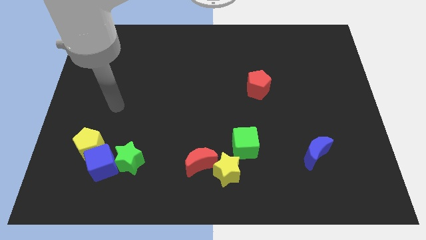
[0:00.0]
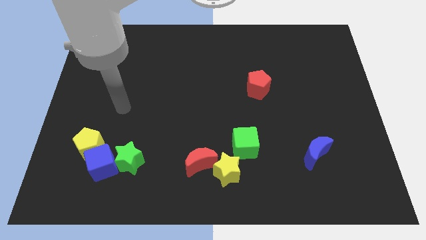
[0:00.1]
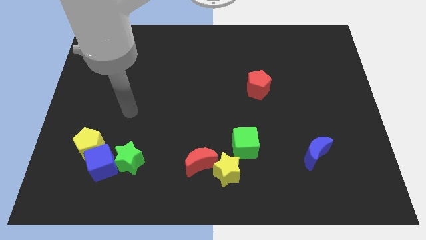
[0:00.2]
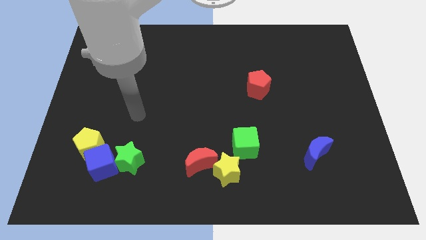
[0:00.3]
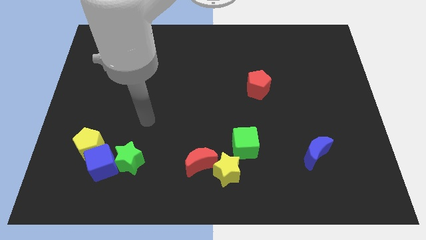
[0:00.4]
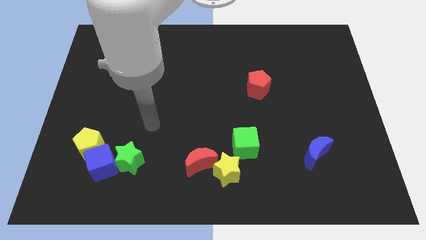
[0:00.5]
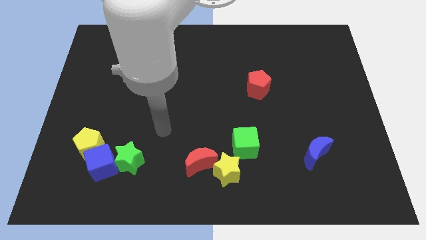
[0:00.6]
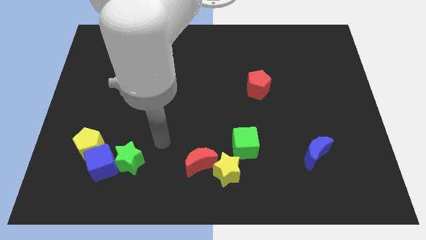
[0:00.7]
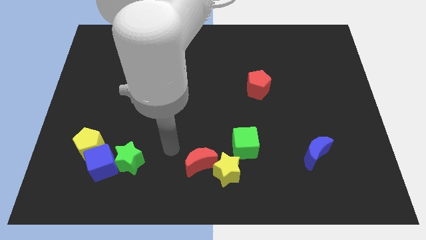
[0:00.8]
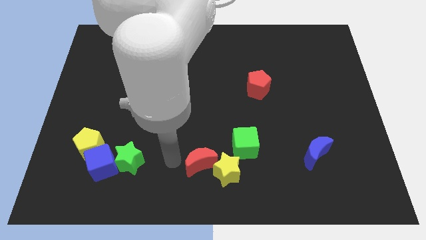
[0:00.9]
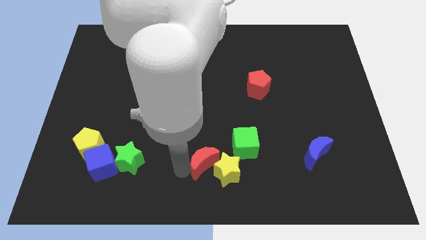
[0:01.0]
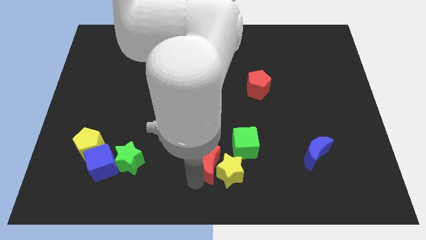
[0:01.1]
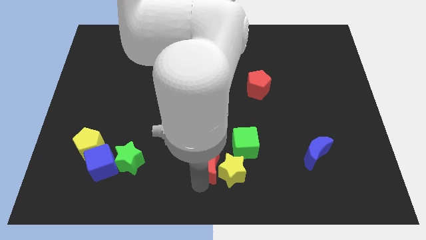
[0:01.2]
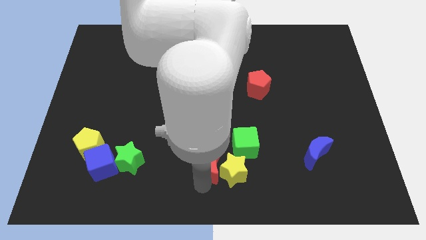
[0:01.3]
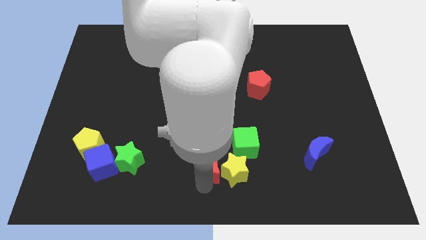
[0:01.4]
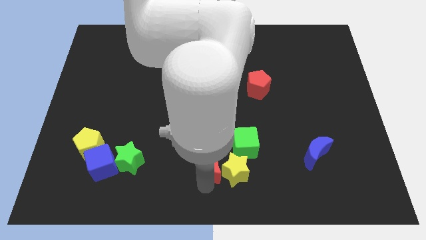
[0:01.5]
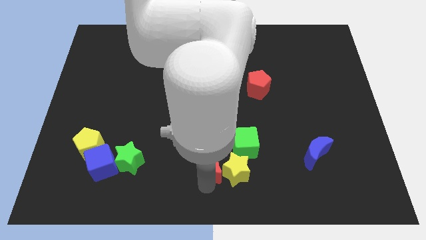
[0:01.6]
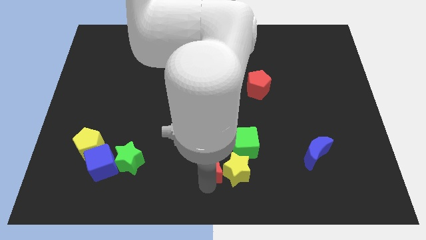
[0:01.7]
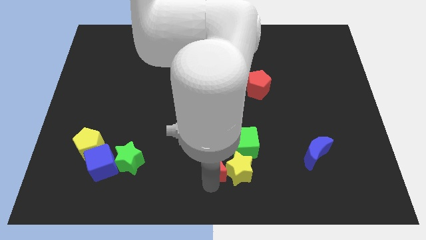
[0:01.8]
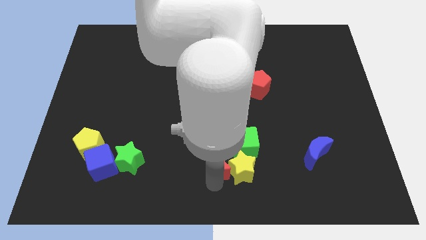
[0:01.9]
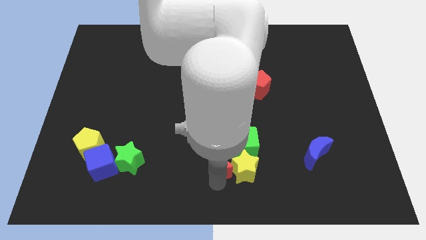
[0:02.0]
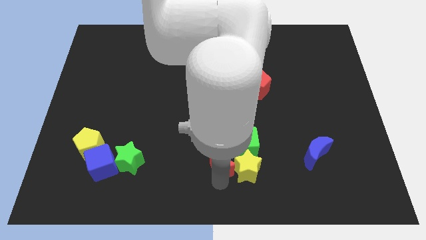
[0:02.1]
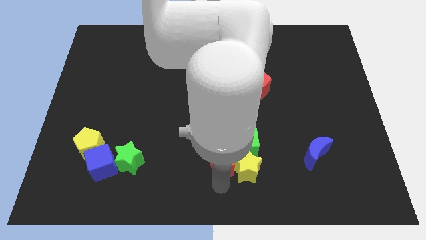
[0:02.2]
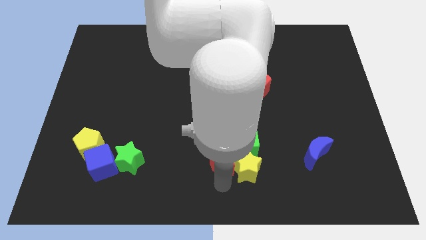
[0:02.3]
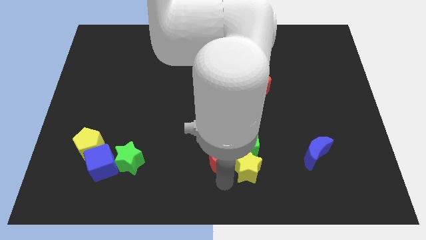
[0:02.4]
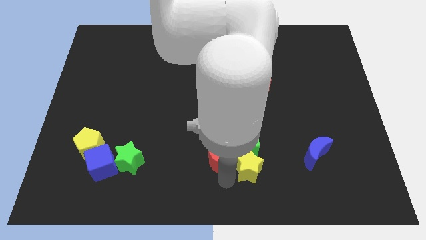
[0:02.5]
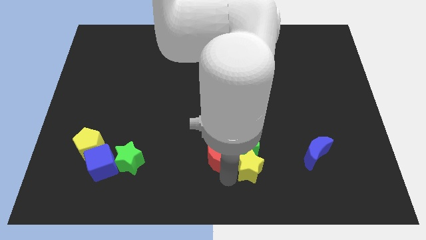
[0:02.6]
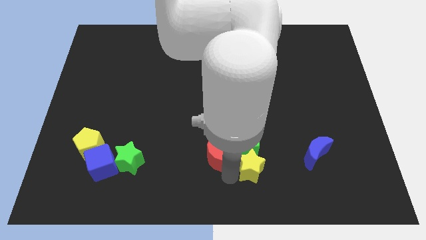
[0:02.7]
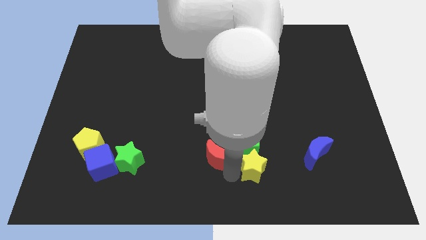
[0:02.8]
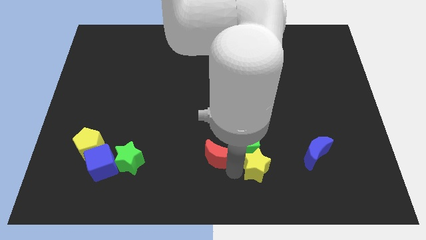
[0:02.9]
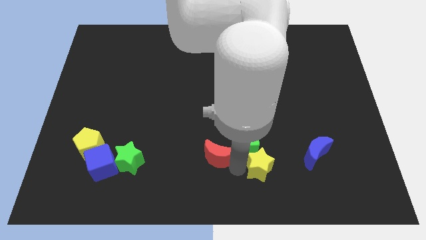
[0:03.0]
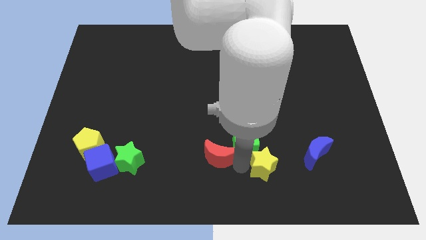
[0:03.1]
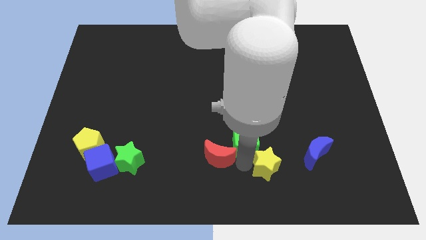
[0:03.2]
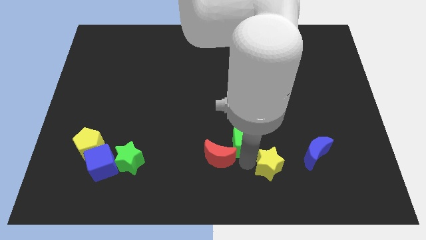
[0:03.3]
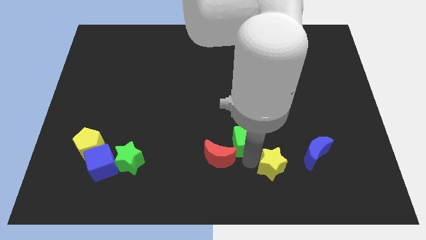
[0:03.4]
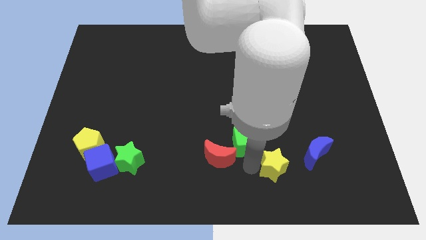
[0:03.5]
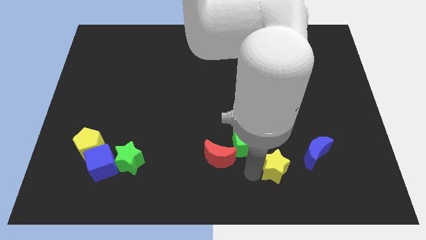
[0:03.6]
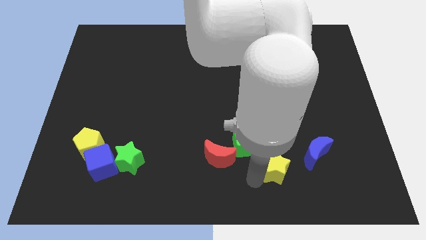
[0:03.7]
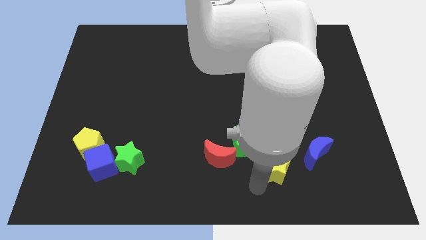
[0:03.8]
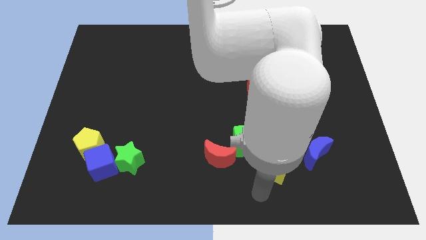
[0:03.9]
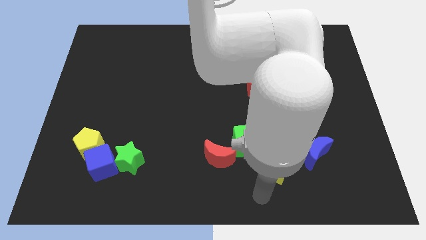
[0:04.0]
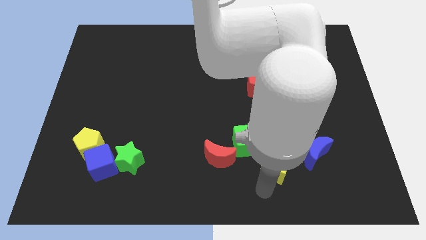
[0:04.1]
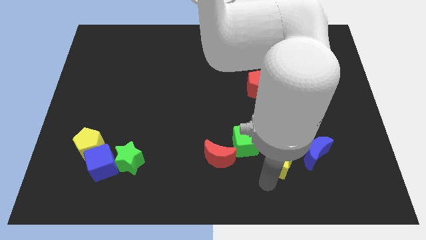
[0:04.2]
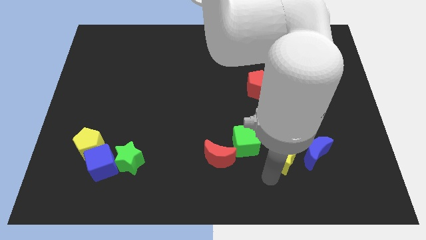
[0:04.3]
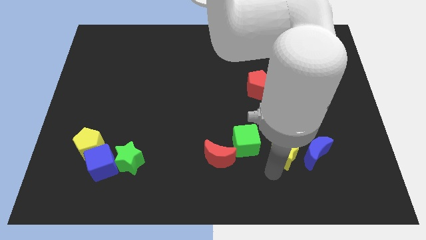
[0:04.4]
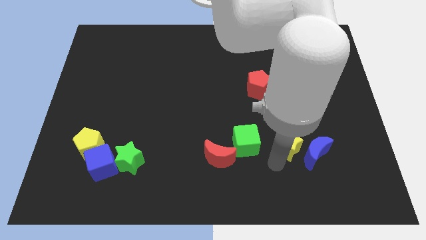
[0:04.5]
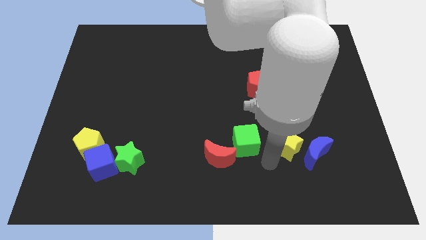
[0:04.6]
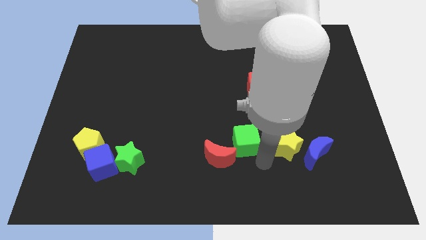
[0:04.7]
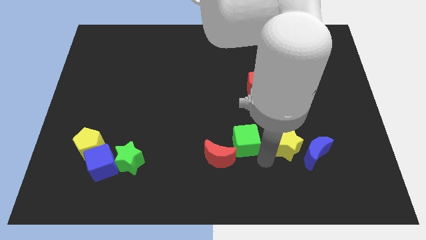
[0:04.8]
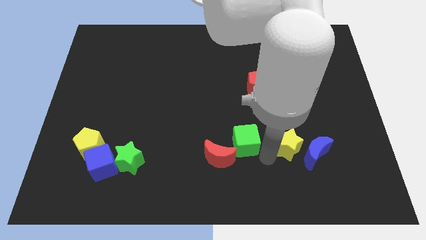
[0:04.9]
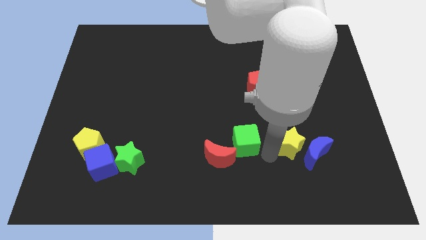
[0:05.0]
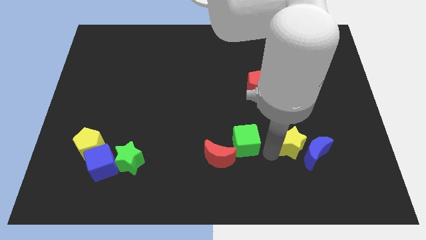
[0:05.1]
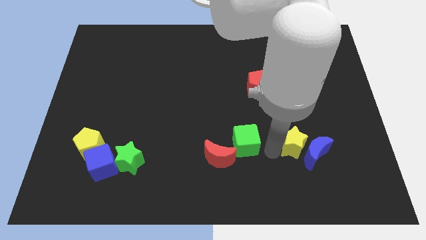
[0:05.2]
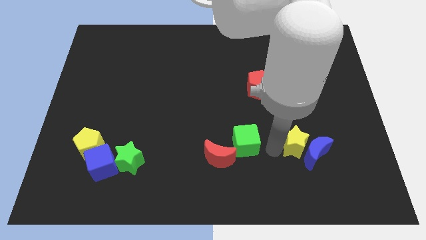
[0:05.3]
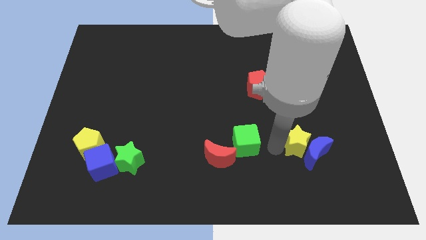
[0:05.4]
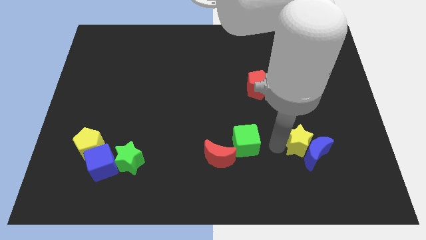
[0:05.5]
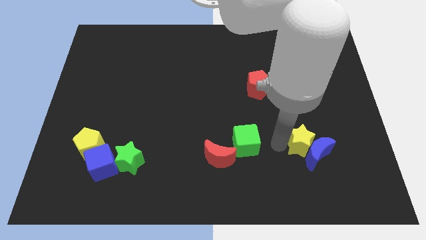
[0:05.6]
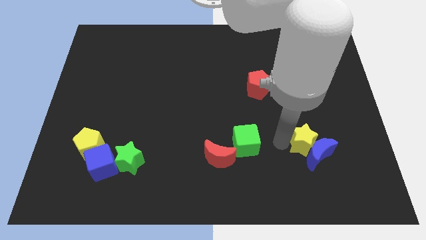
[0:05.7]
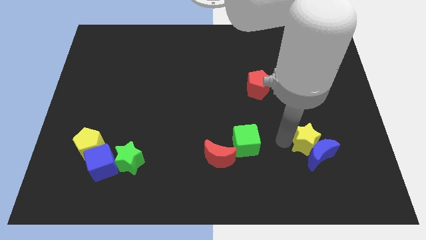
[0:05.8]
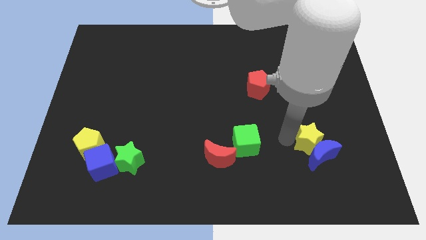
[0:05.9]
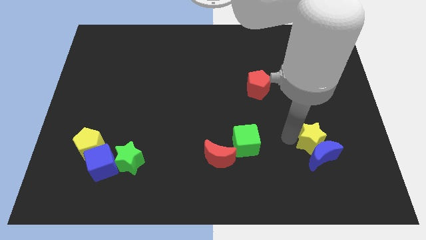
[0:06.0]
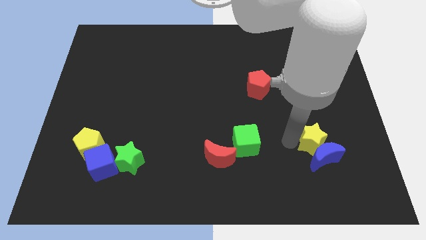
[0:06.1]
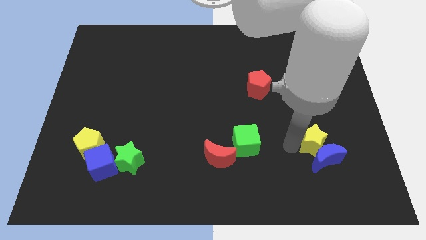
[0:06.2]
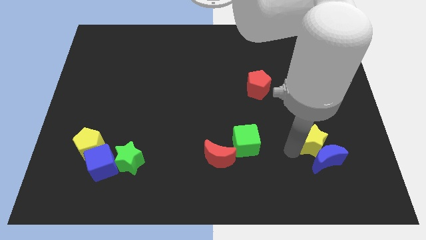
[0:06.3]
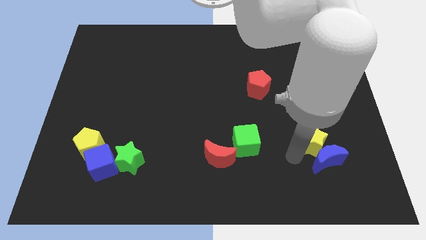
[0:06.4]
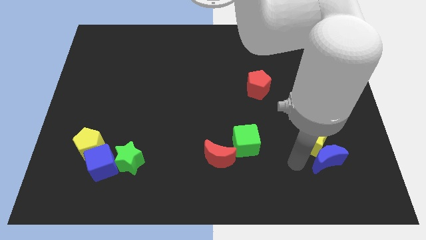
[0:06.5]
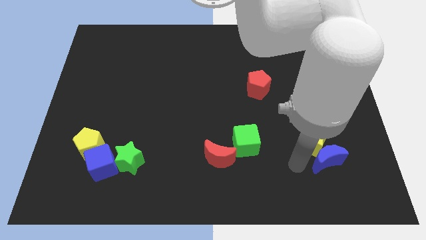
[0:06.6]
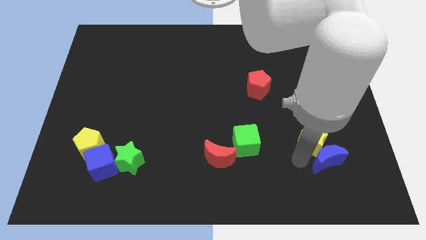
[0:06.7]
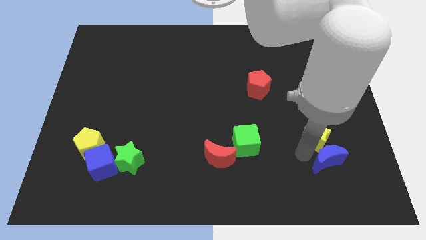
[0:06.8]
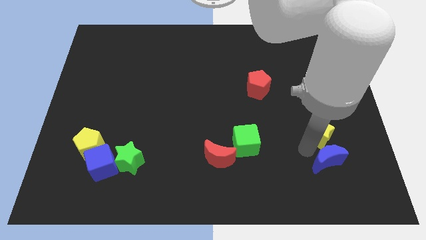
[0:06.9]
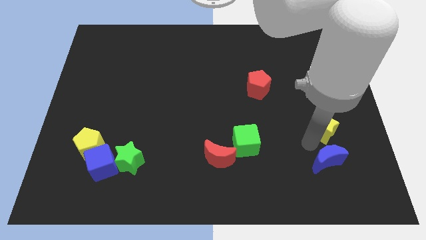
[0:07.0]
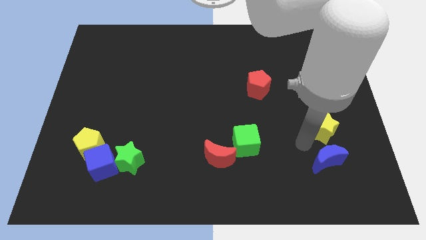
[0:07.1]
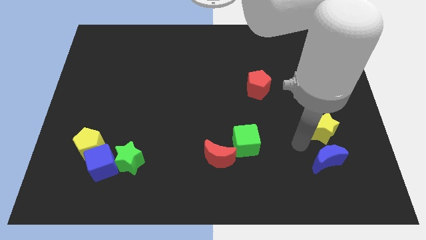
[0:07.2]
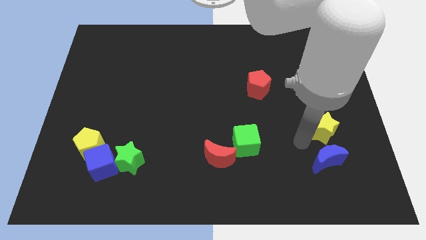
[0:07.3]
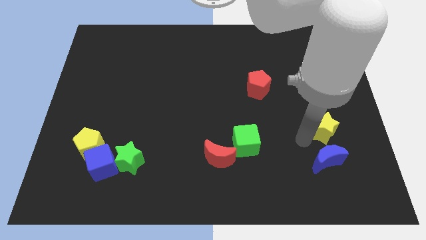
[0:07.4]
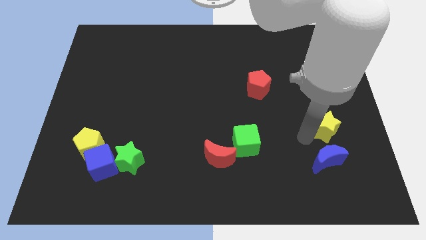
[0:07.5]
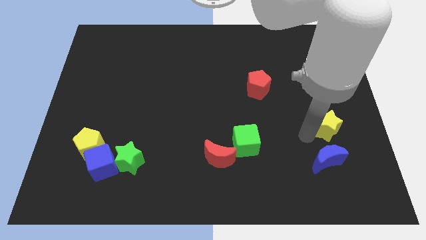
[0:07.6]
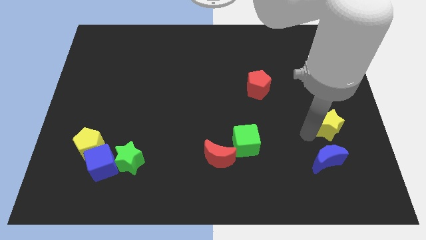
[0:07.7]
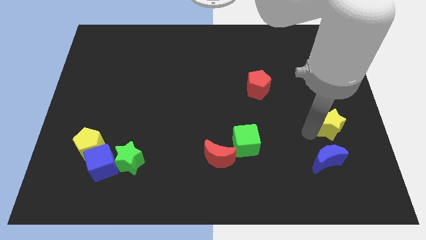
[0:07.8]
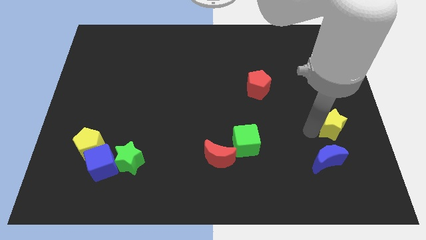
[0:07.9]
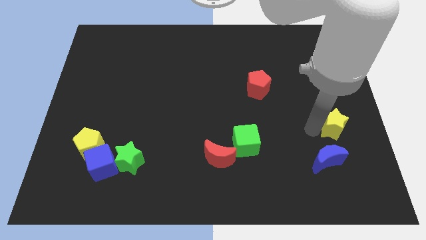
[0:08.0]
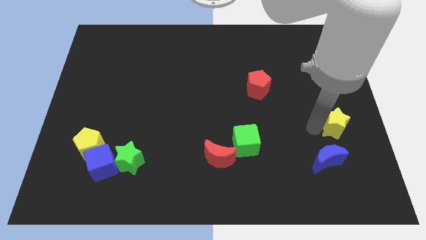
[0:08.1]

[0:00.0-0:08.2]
put the yellow star to the right side of the board
